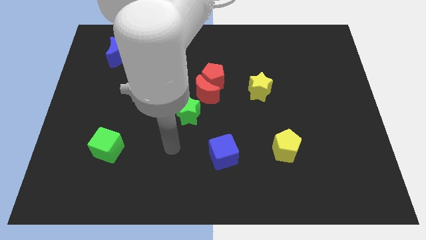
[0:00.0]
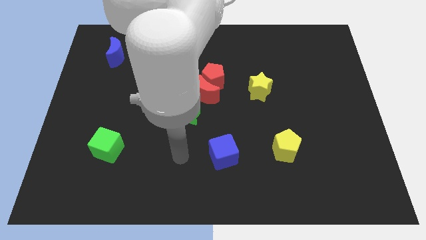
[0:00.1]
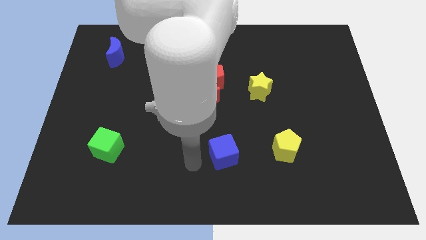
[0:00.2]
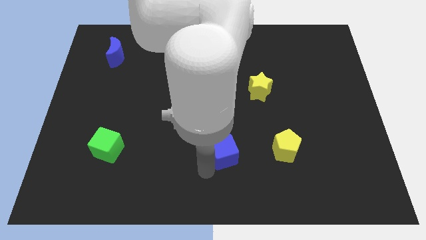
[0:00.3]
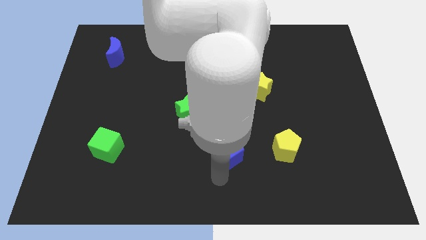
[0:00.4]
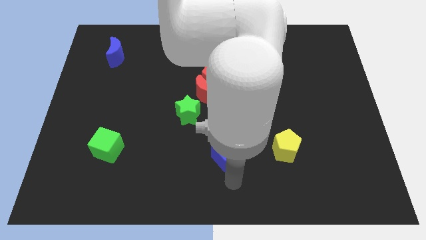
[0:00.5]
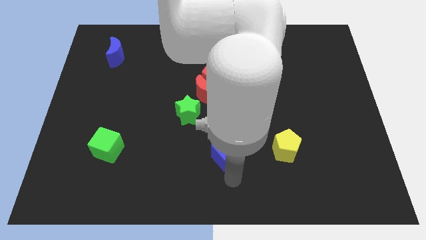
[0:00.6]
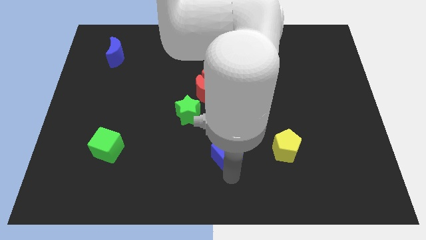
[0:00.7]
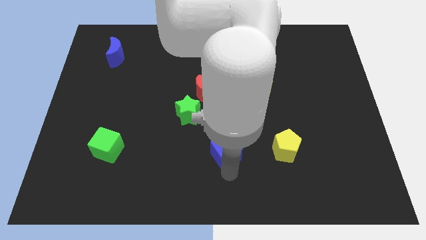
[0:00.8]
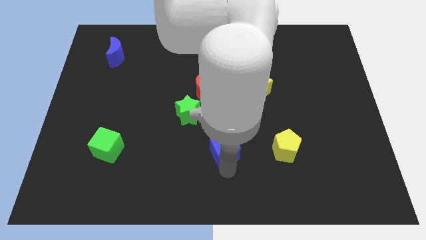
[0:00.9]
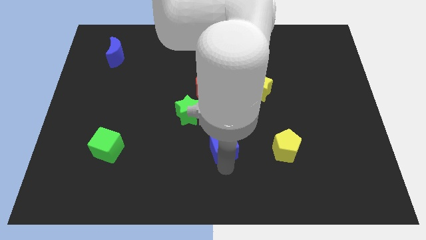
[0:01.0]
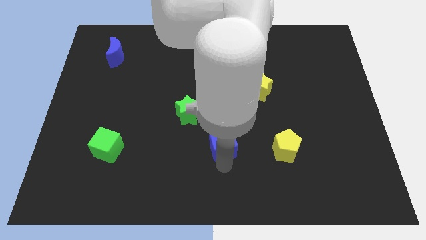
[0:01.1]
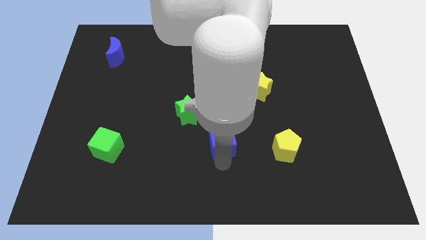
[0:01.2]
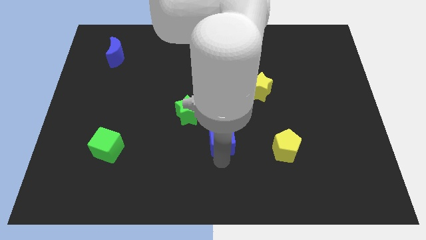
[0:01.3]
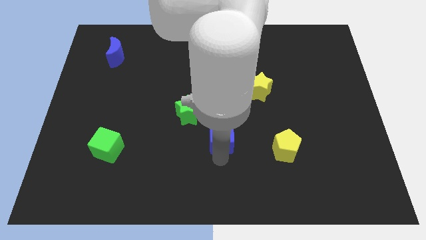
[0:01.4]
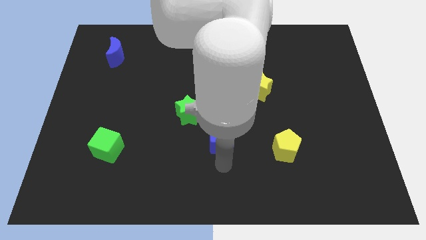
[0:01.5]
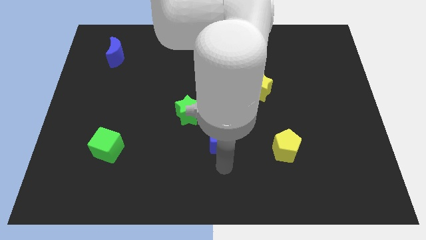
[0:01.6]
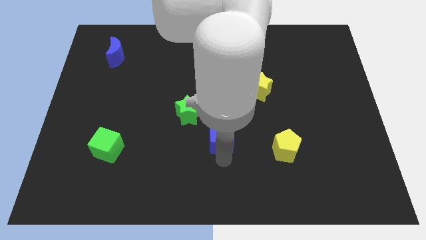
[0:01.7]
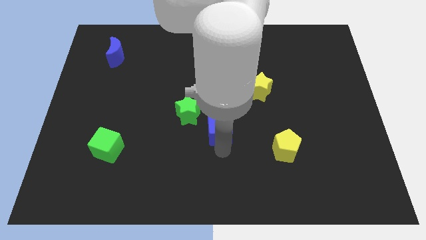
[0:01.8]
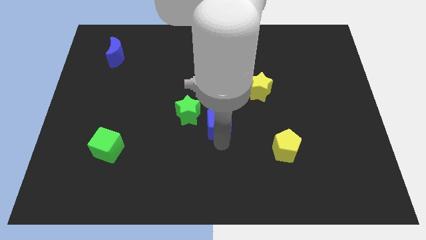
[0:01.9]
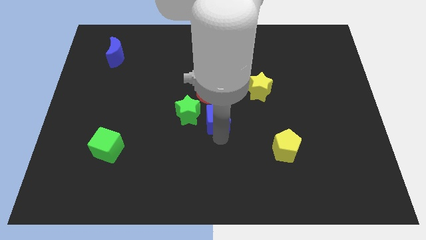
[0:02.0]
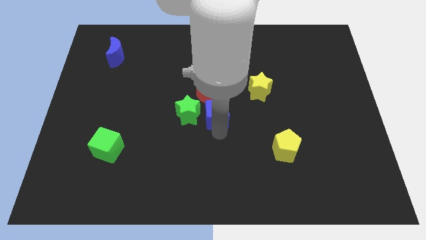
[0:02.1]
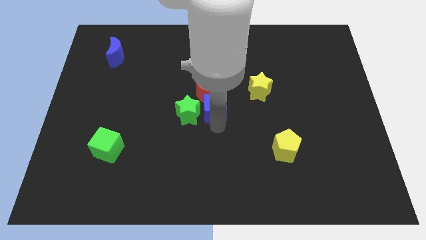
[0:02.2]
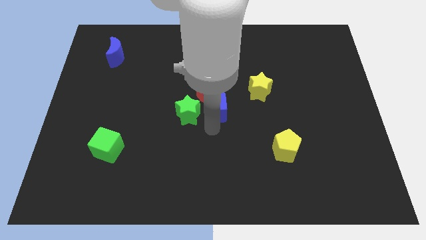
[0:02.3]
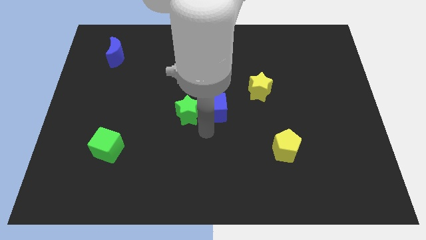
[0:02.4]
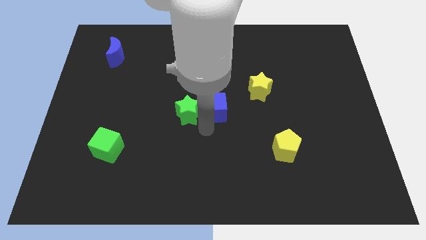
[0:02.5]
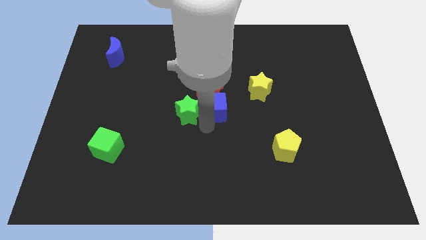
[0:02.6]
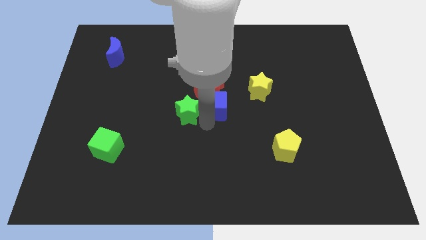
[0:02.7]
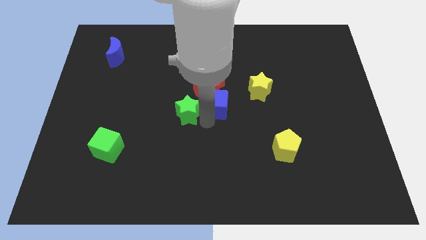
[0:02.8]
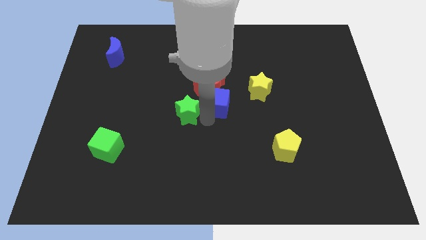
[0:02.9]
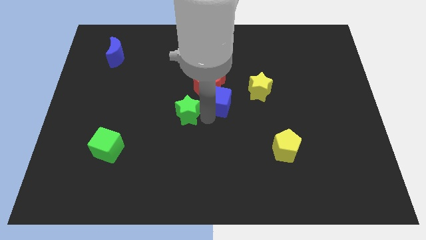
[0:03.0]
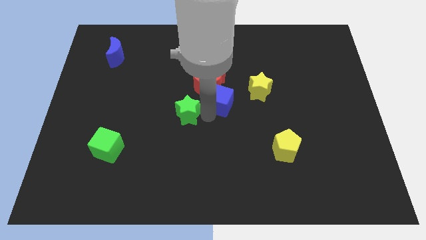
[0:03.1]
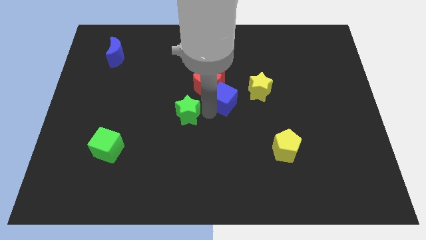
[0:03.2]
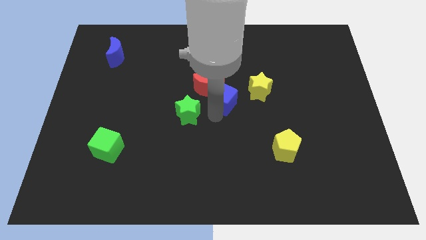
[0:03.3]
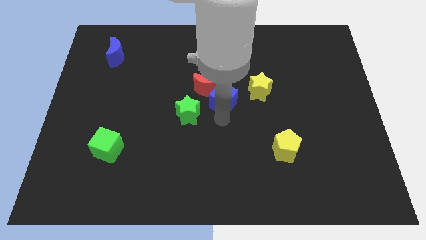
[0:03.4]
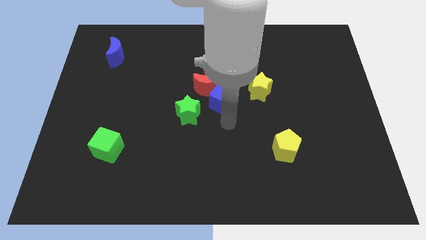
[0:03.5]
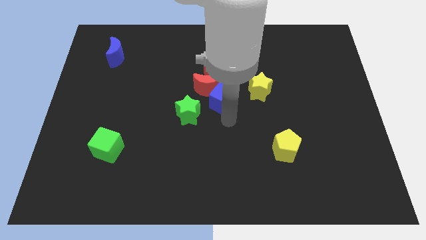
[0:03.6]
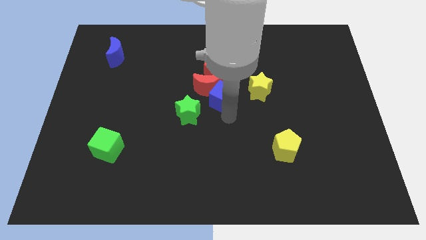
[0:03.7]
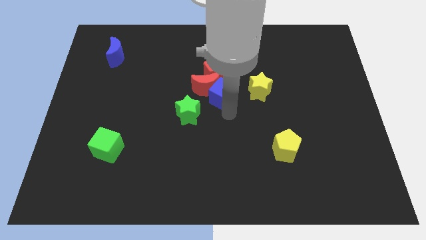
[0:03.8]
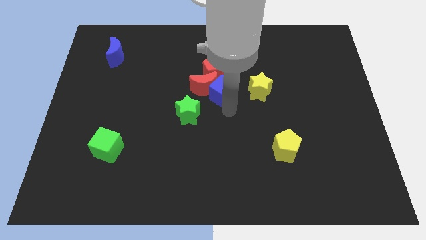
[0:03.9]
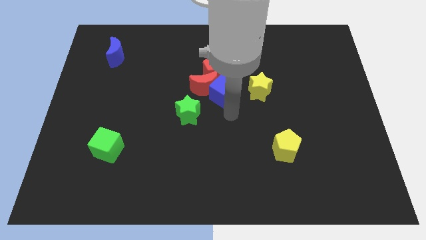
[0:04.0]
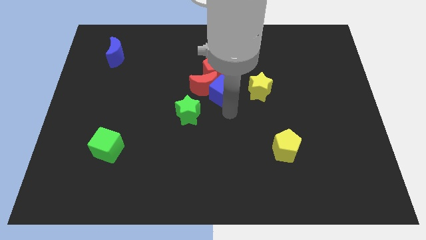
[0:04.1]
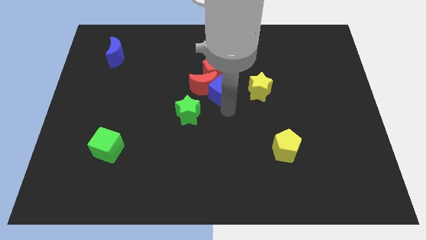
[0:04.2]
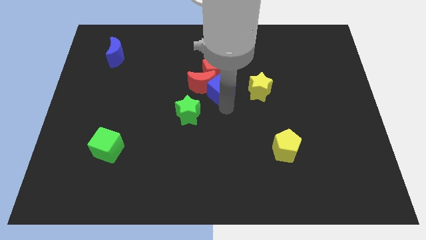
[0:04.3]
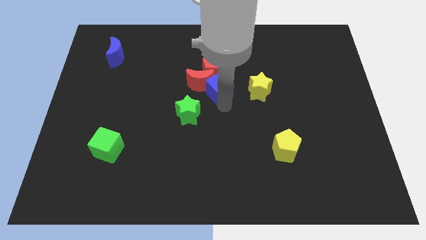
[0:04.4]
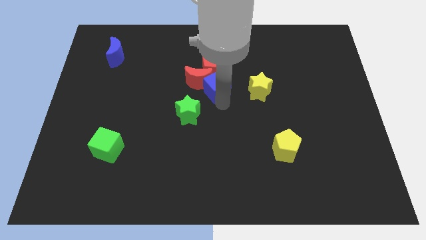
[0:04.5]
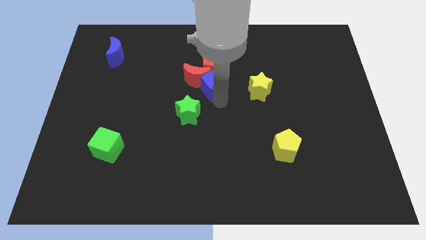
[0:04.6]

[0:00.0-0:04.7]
push the blue cube to the red pentagon

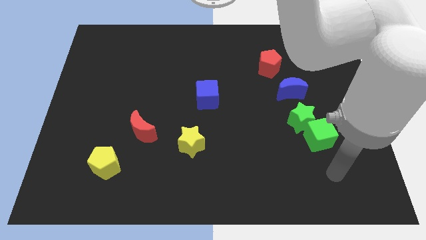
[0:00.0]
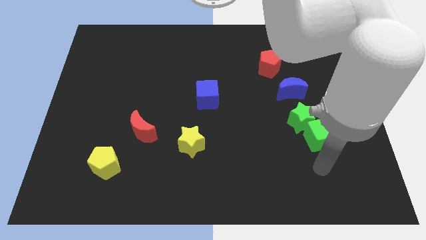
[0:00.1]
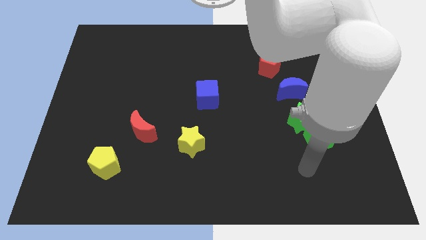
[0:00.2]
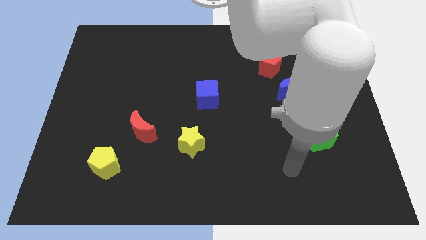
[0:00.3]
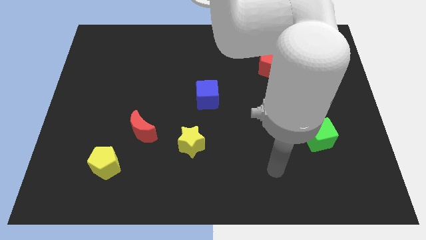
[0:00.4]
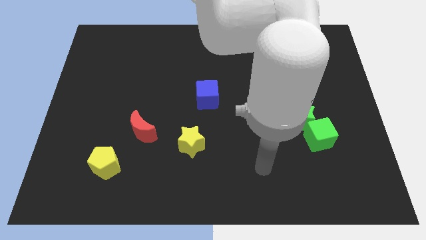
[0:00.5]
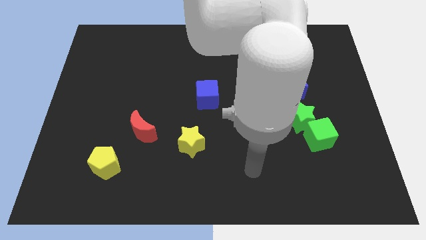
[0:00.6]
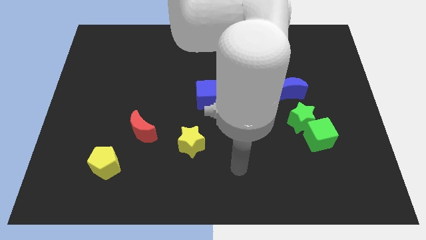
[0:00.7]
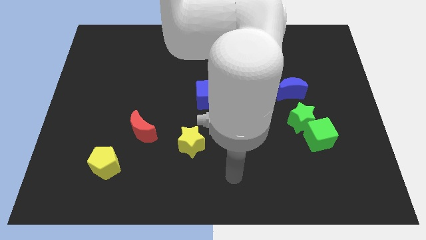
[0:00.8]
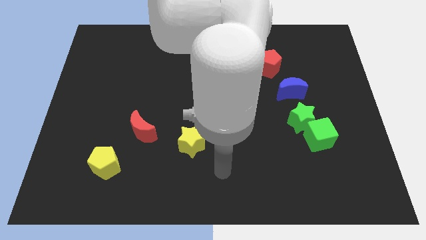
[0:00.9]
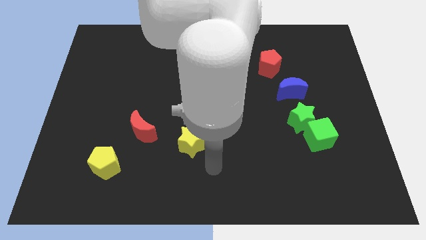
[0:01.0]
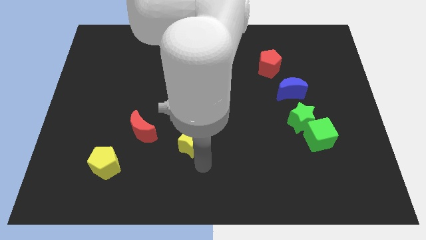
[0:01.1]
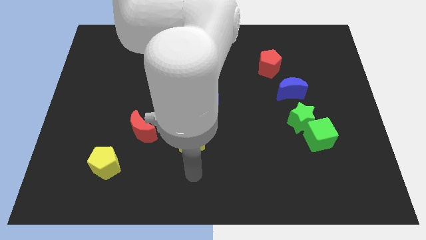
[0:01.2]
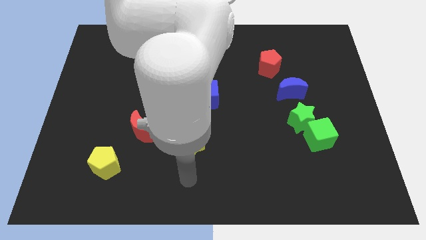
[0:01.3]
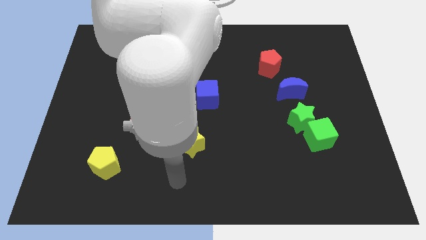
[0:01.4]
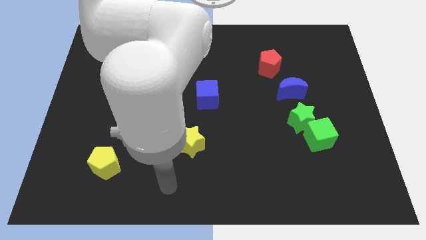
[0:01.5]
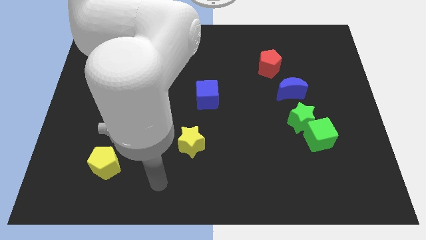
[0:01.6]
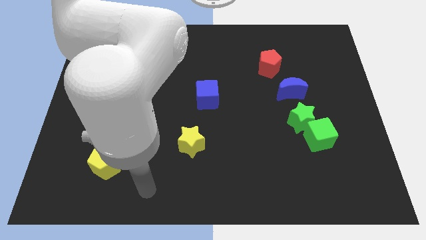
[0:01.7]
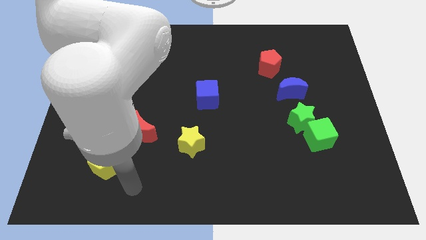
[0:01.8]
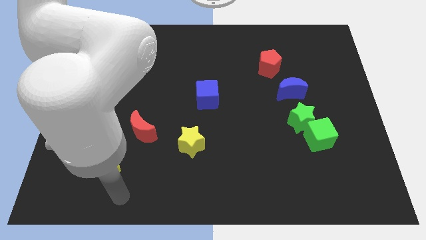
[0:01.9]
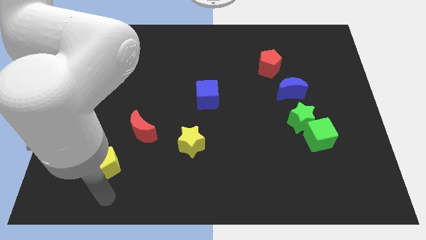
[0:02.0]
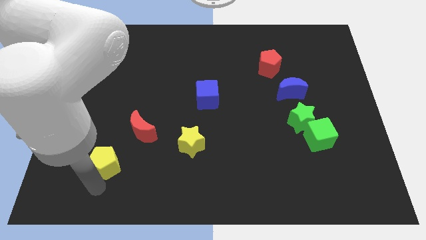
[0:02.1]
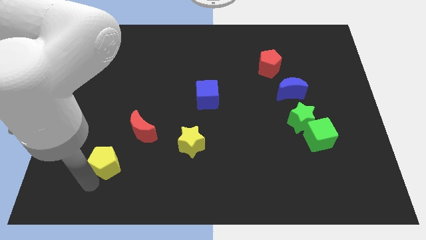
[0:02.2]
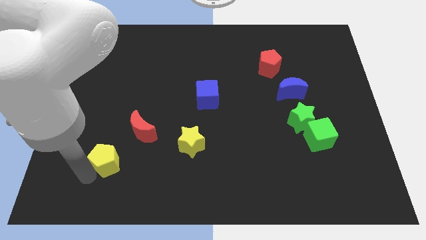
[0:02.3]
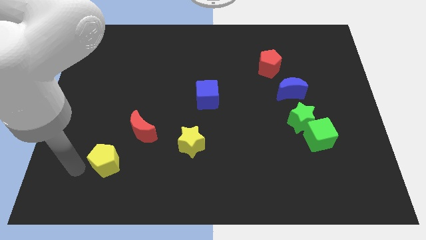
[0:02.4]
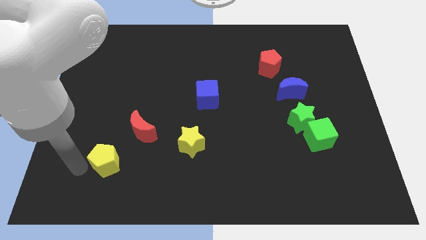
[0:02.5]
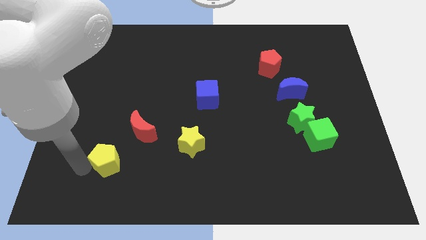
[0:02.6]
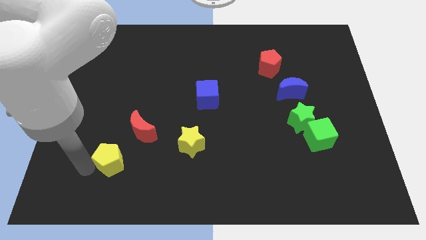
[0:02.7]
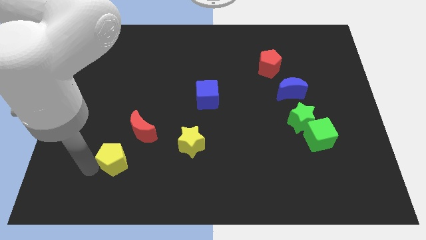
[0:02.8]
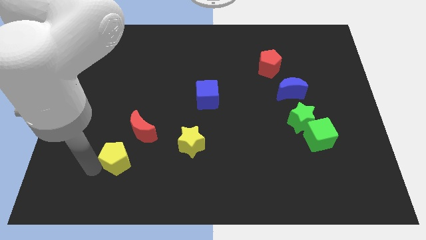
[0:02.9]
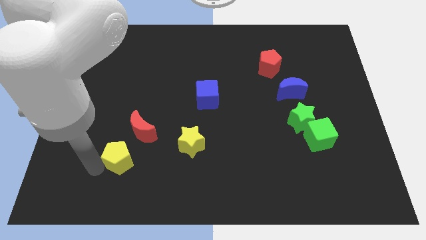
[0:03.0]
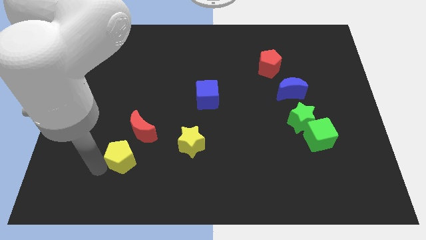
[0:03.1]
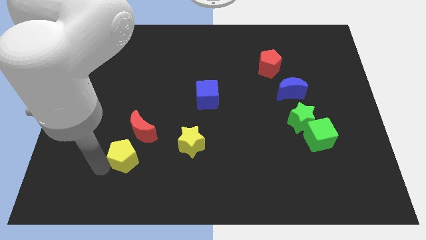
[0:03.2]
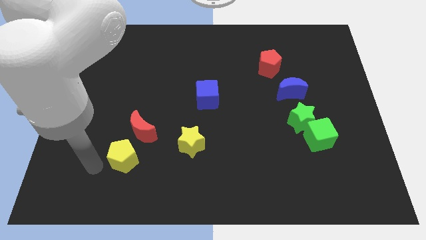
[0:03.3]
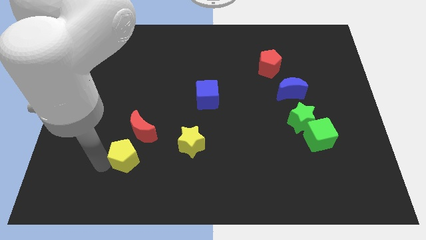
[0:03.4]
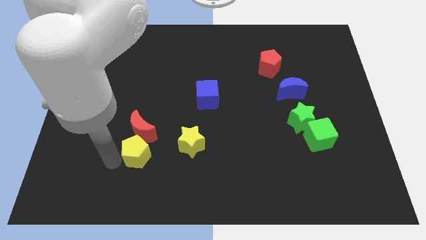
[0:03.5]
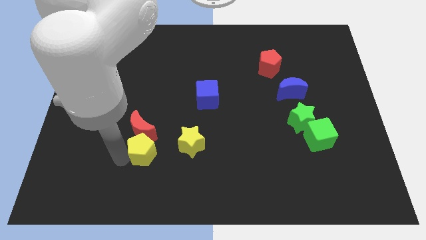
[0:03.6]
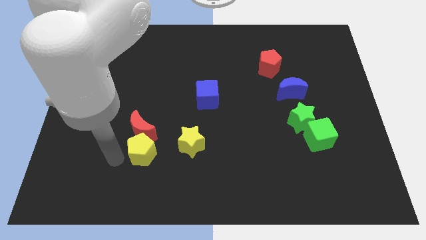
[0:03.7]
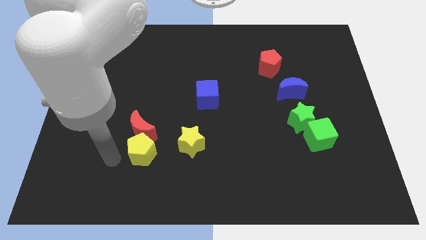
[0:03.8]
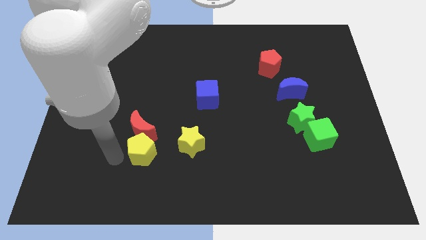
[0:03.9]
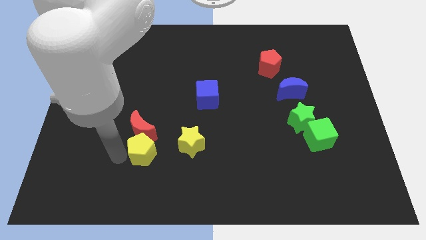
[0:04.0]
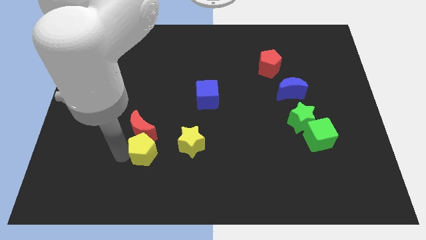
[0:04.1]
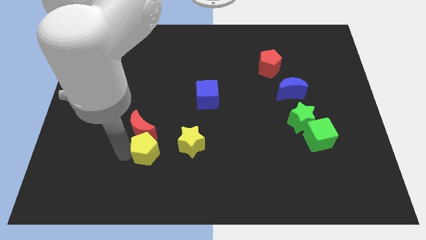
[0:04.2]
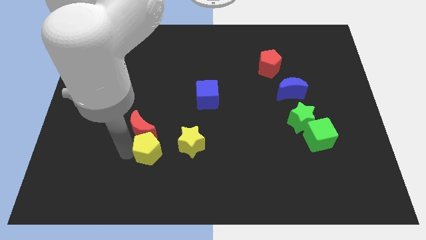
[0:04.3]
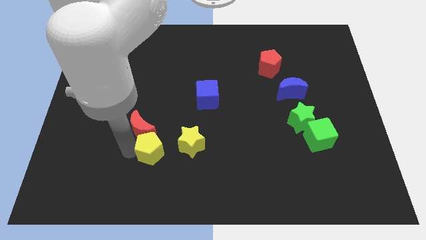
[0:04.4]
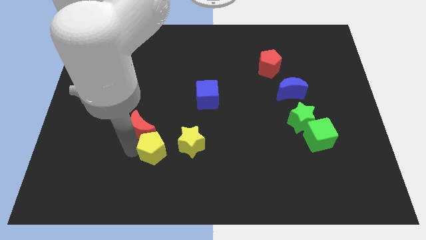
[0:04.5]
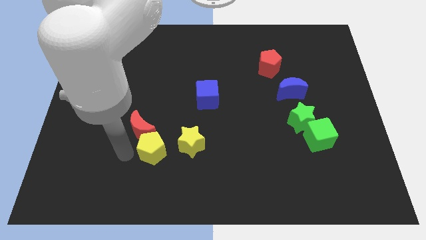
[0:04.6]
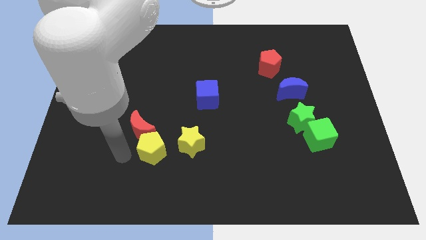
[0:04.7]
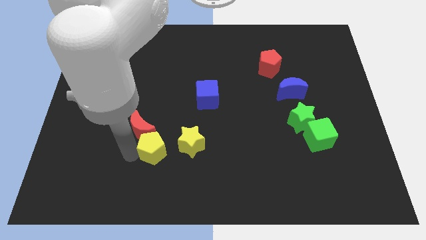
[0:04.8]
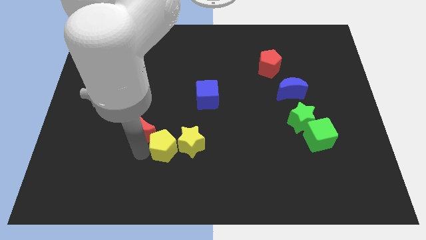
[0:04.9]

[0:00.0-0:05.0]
put the yellow pentagon to the yellow star
